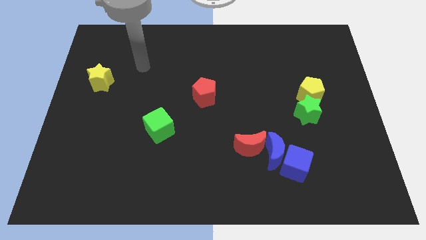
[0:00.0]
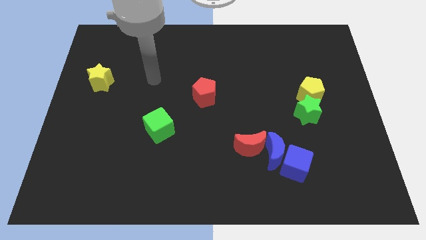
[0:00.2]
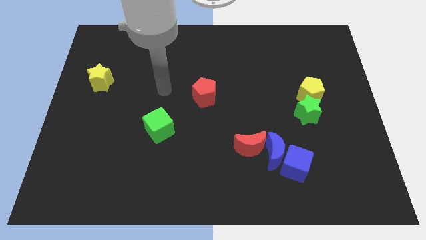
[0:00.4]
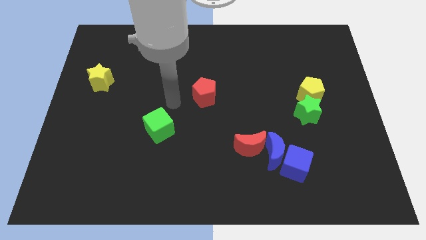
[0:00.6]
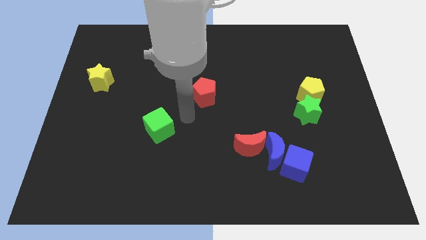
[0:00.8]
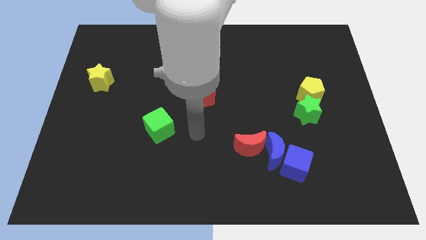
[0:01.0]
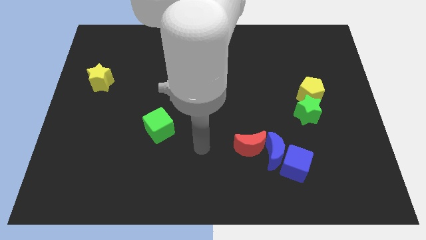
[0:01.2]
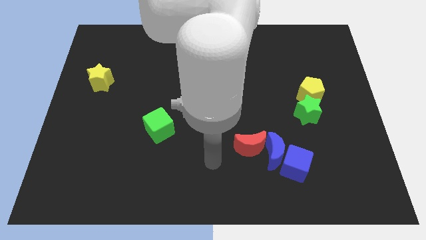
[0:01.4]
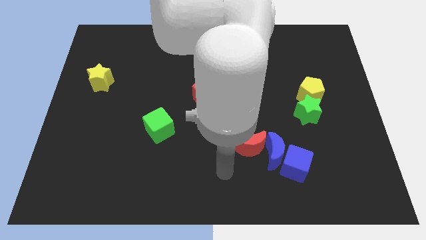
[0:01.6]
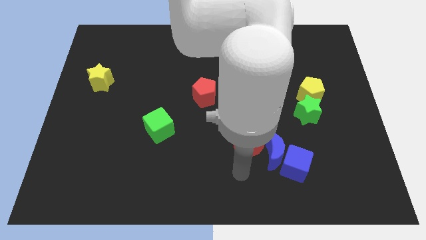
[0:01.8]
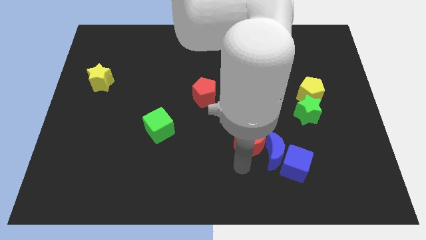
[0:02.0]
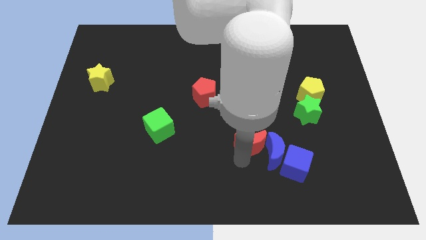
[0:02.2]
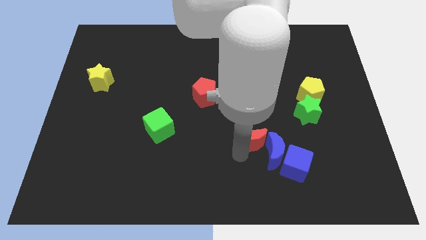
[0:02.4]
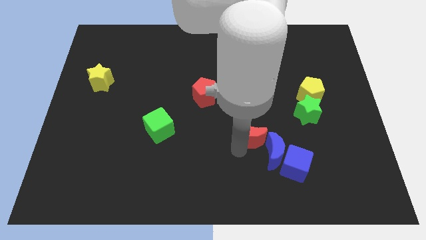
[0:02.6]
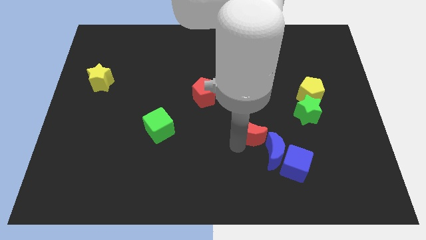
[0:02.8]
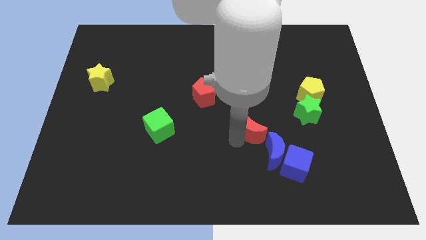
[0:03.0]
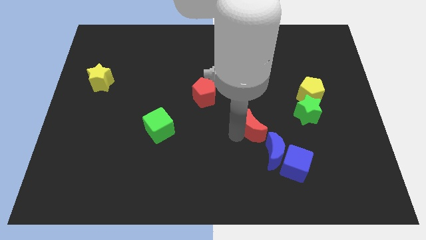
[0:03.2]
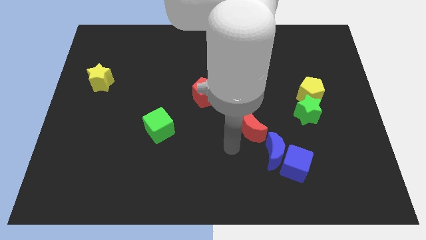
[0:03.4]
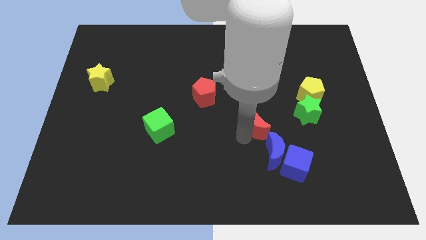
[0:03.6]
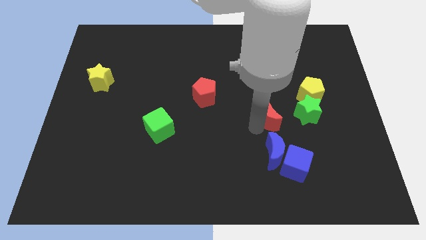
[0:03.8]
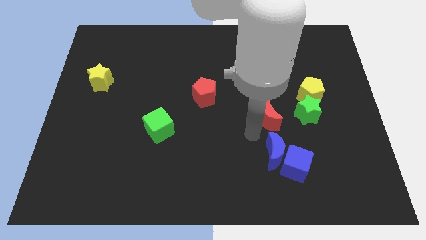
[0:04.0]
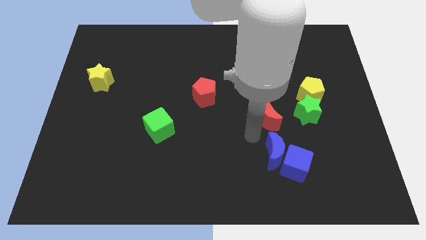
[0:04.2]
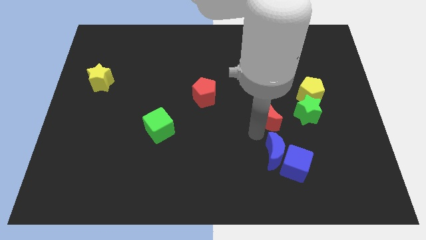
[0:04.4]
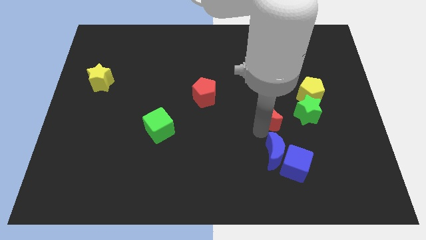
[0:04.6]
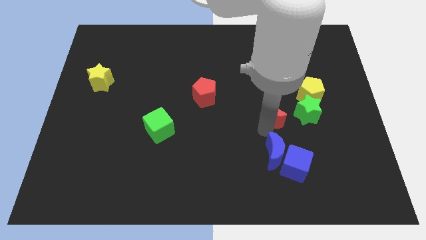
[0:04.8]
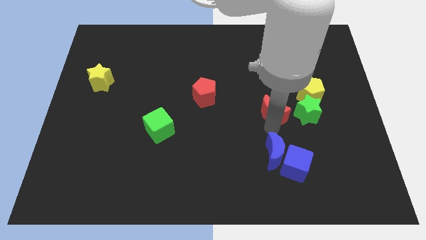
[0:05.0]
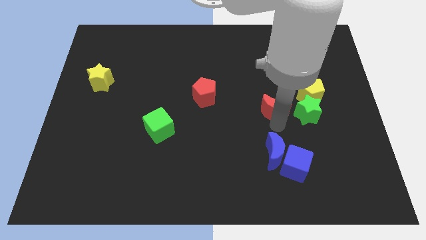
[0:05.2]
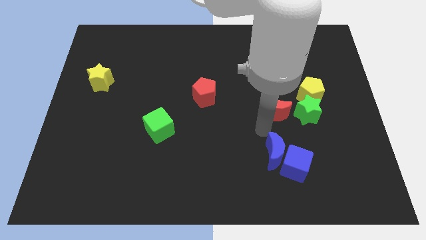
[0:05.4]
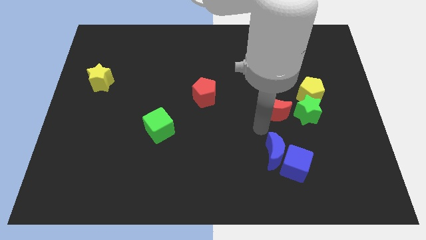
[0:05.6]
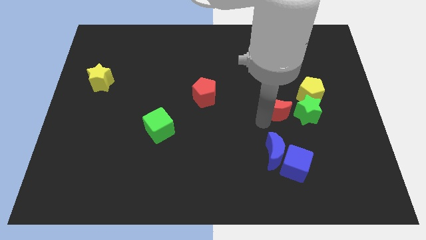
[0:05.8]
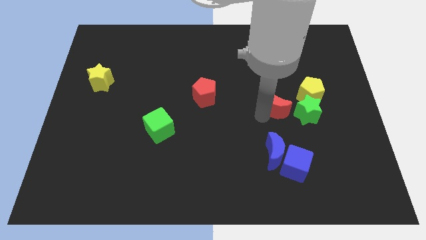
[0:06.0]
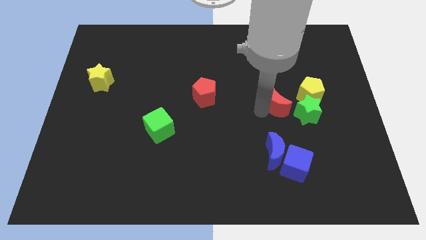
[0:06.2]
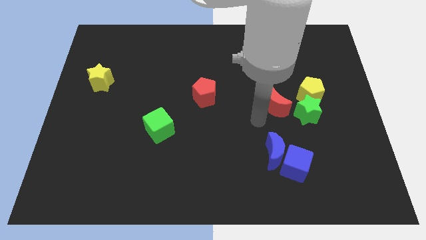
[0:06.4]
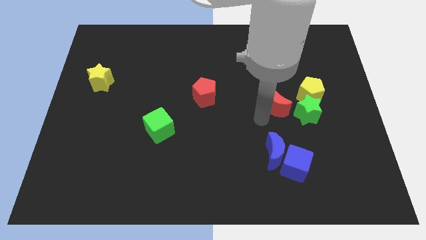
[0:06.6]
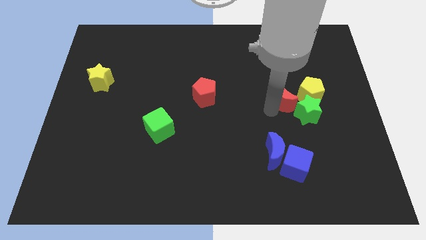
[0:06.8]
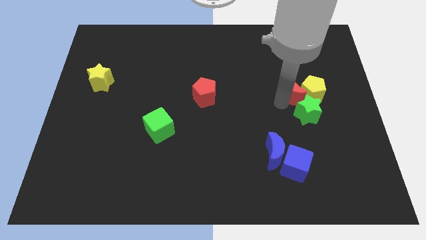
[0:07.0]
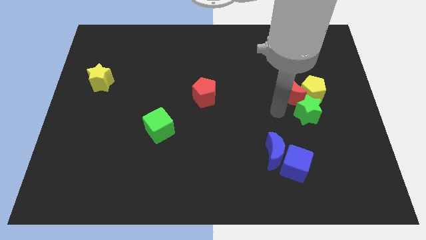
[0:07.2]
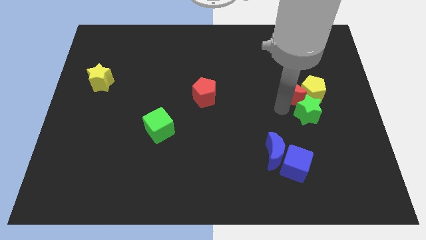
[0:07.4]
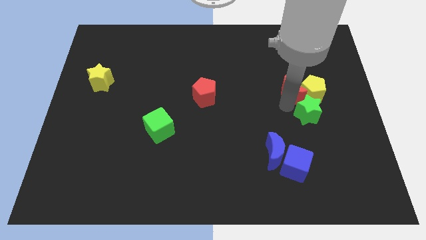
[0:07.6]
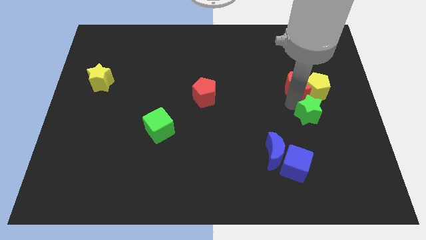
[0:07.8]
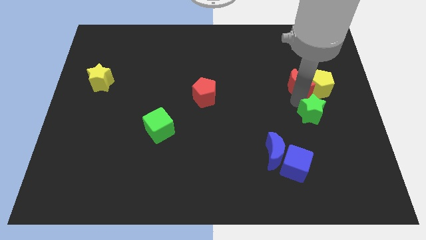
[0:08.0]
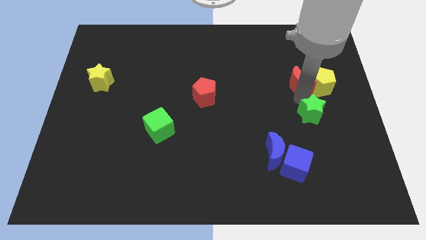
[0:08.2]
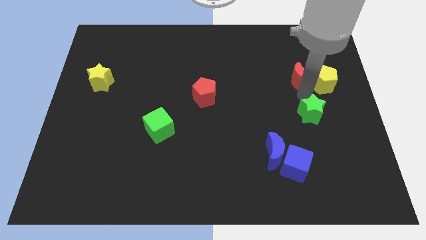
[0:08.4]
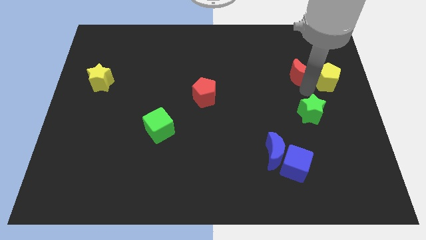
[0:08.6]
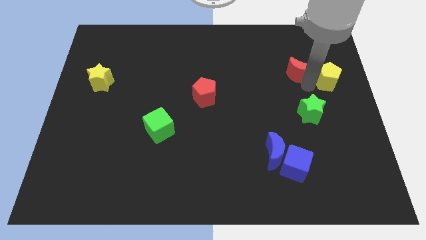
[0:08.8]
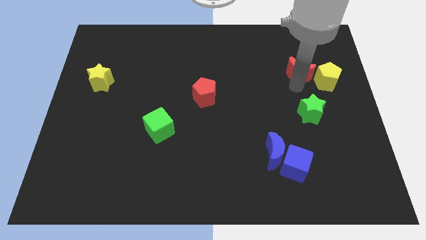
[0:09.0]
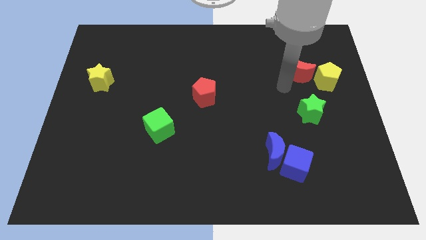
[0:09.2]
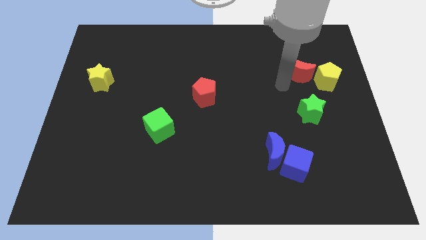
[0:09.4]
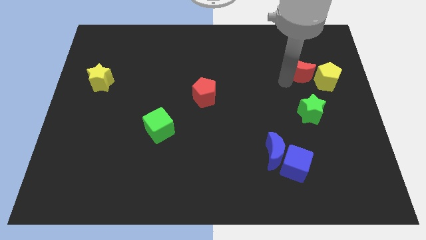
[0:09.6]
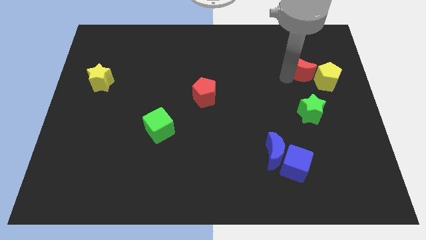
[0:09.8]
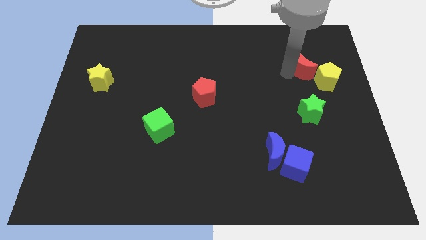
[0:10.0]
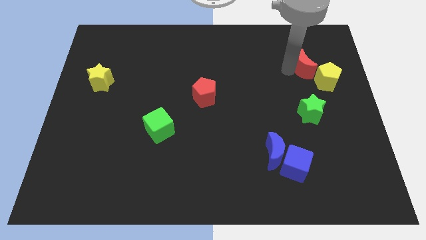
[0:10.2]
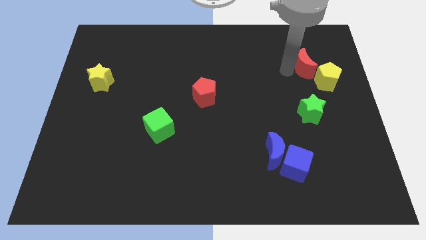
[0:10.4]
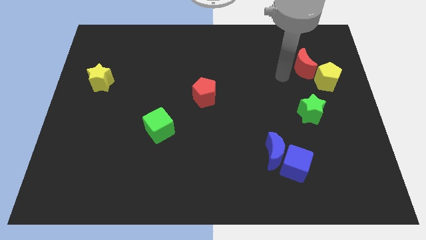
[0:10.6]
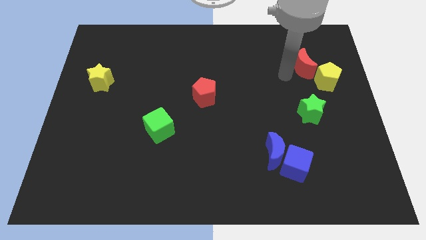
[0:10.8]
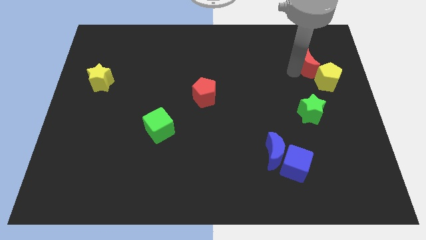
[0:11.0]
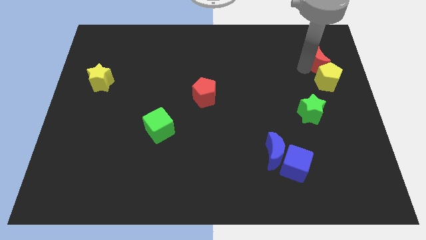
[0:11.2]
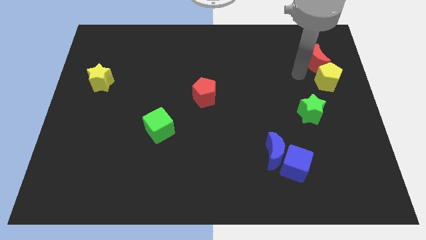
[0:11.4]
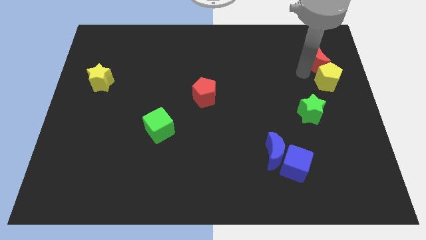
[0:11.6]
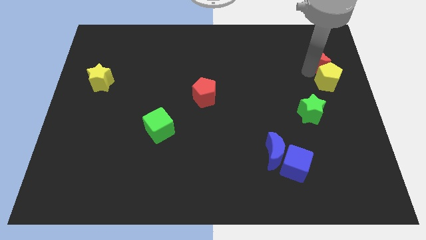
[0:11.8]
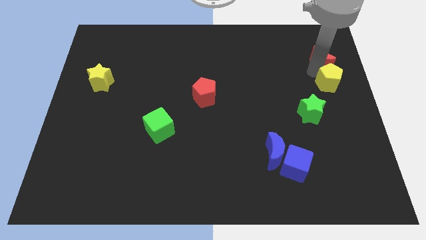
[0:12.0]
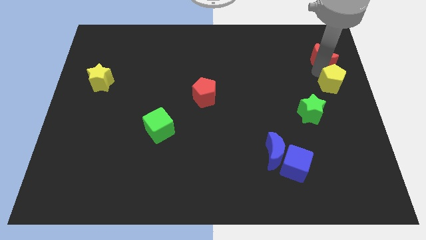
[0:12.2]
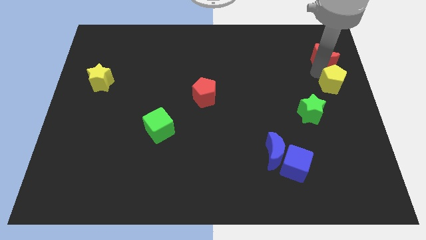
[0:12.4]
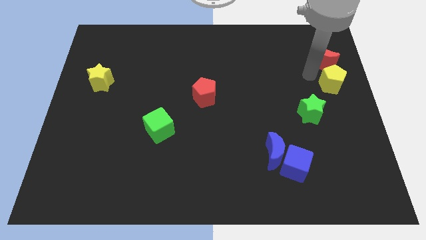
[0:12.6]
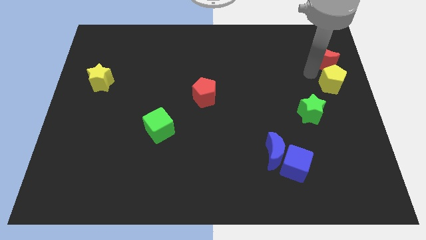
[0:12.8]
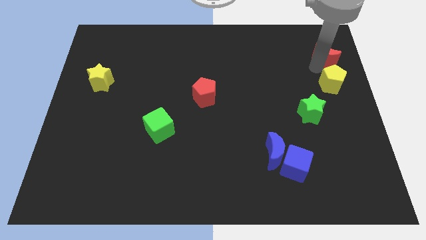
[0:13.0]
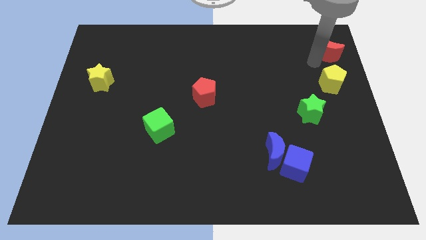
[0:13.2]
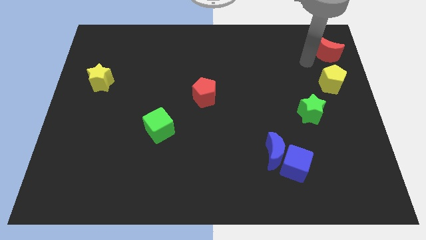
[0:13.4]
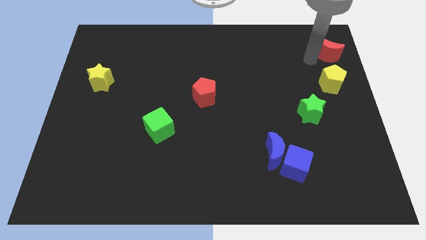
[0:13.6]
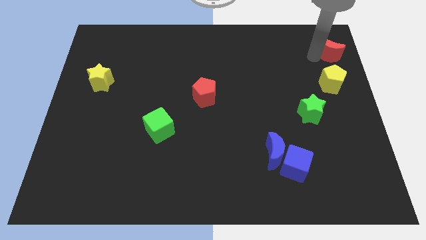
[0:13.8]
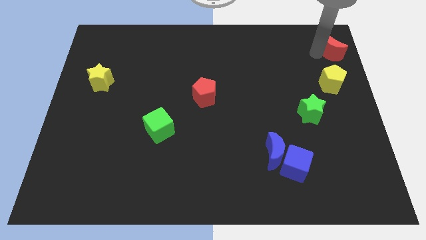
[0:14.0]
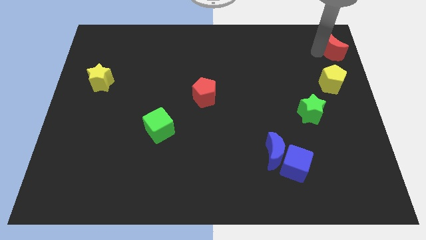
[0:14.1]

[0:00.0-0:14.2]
push the red moon to the top right
